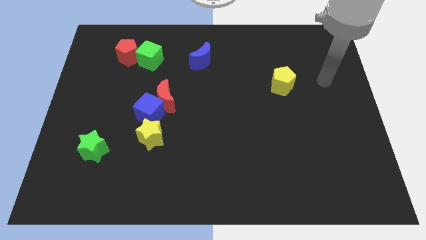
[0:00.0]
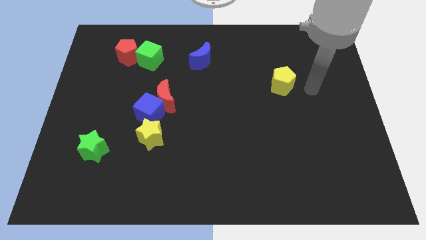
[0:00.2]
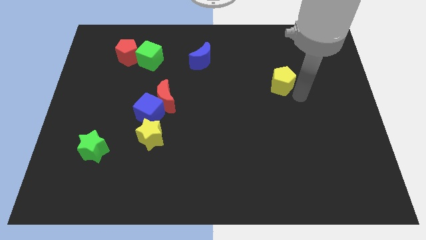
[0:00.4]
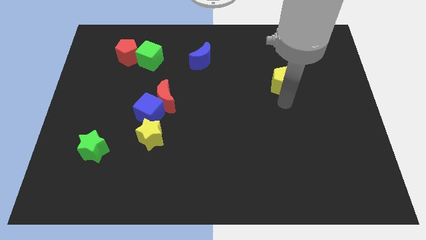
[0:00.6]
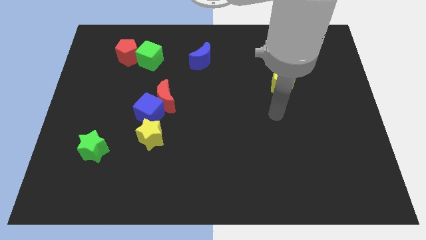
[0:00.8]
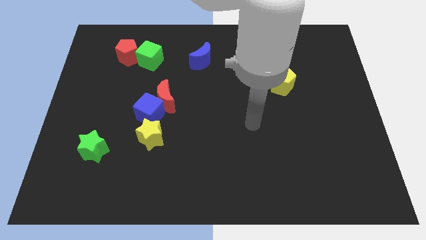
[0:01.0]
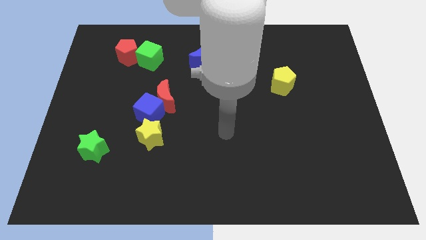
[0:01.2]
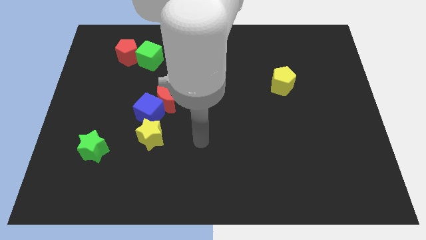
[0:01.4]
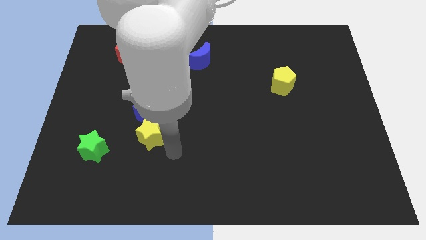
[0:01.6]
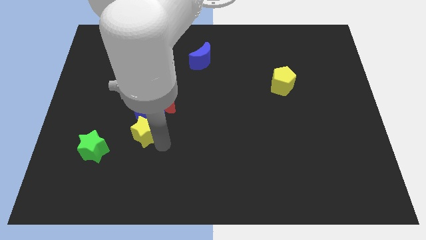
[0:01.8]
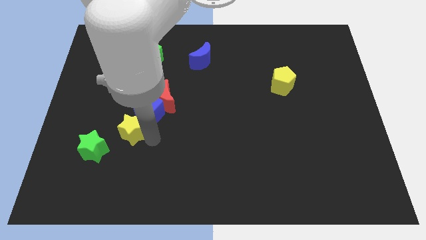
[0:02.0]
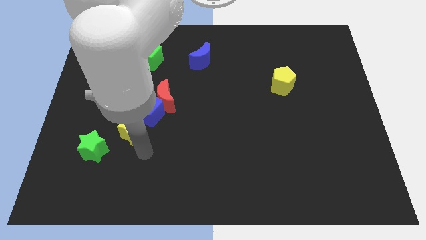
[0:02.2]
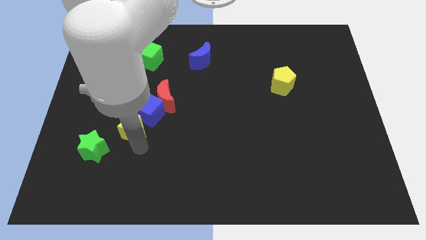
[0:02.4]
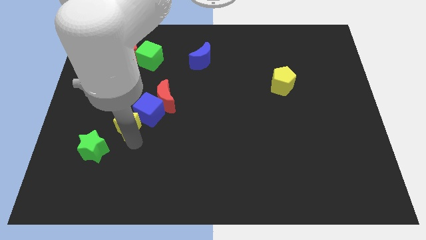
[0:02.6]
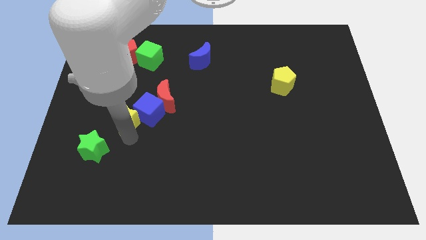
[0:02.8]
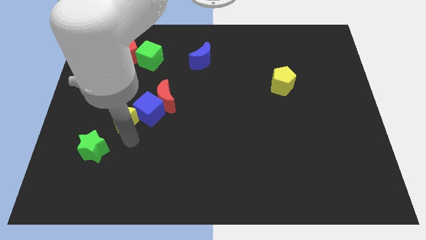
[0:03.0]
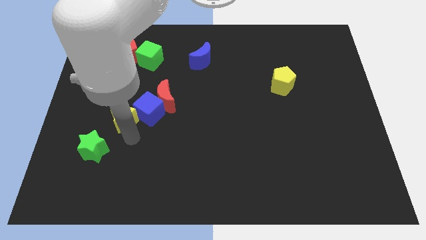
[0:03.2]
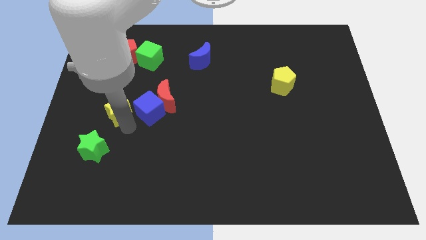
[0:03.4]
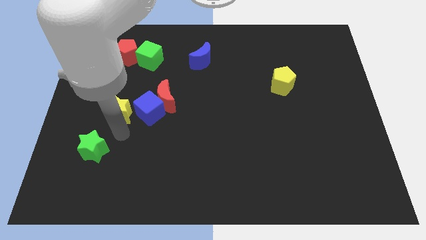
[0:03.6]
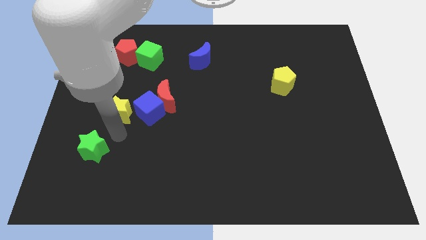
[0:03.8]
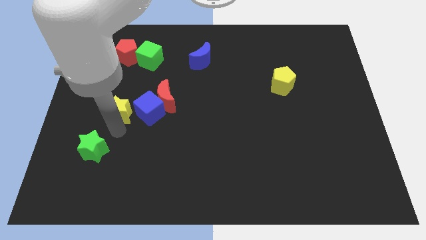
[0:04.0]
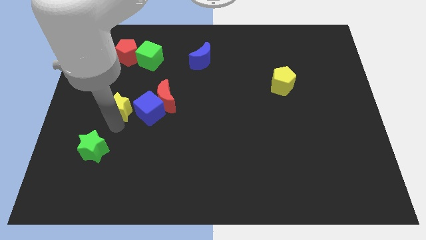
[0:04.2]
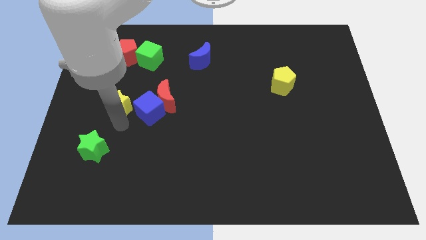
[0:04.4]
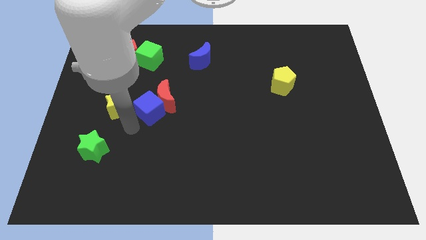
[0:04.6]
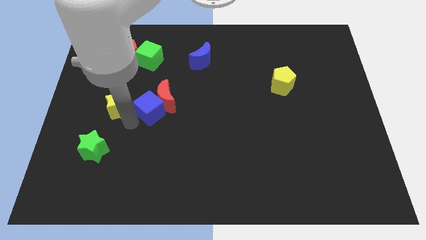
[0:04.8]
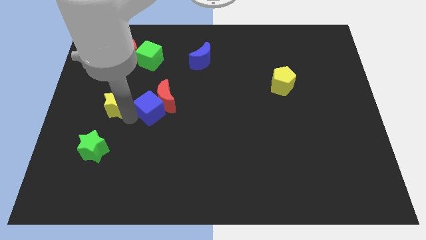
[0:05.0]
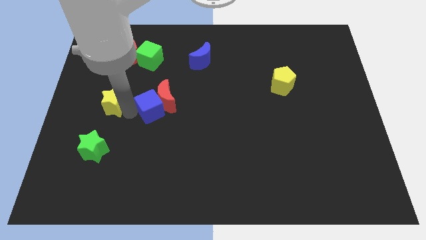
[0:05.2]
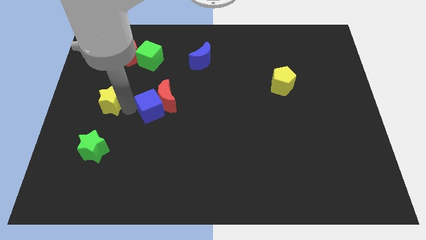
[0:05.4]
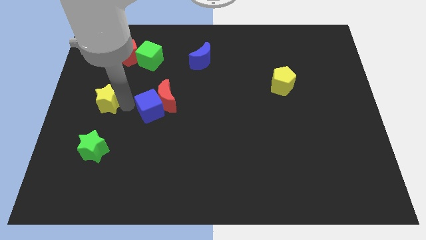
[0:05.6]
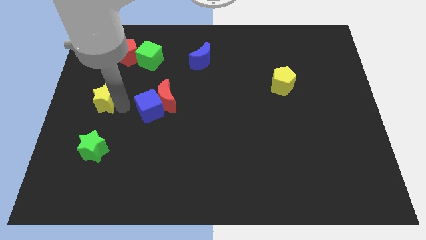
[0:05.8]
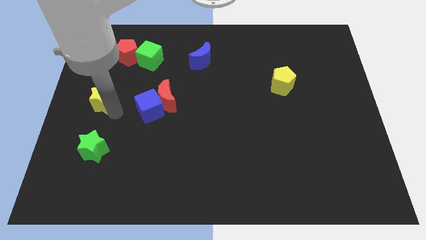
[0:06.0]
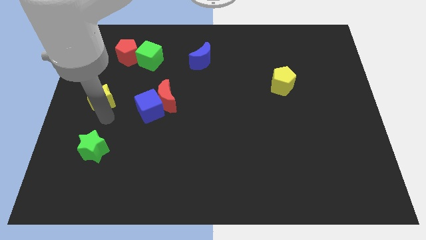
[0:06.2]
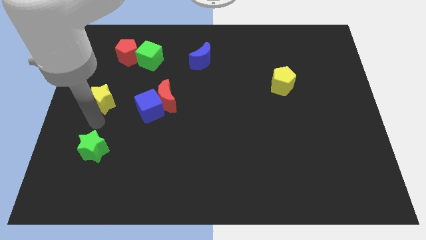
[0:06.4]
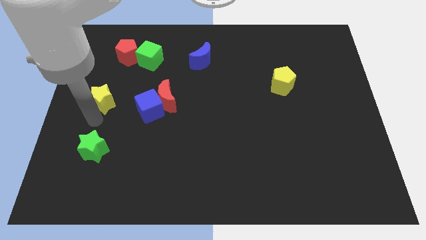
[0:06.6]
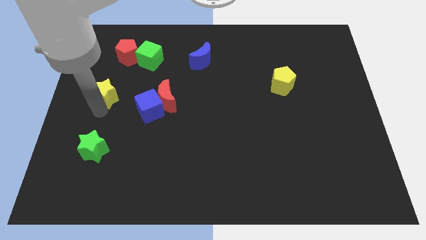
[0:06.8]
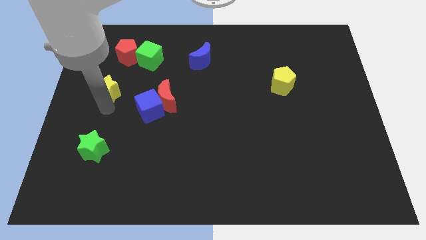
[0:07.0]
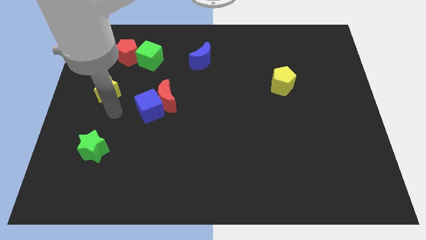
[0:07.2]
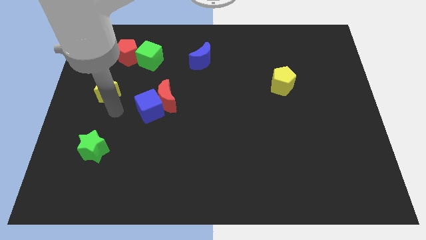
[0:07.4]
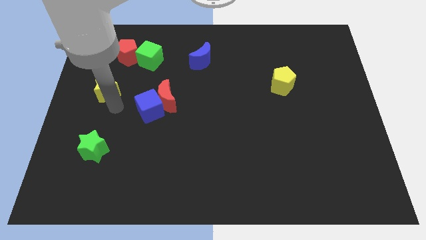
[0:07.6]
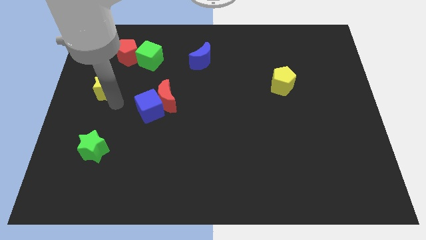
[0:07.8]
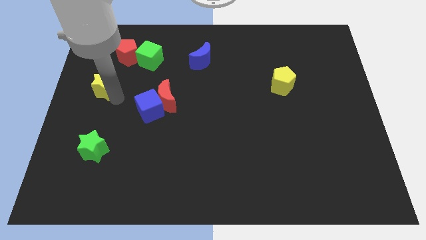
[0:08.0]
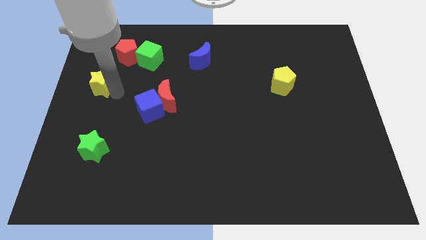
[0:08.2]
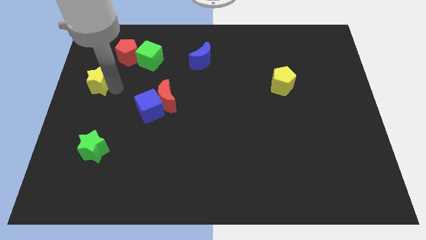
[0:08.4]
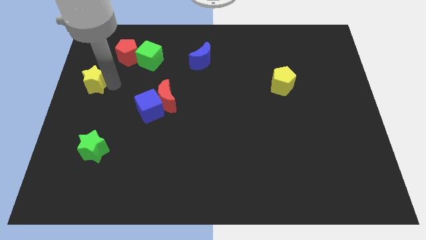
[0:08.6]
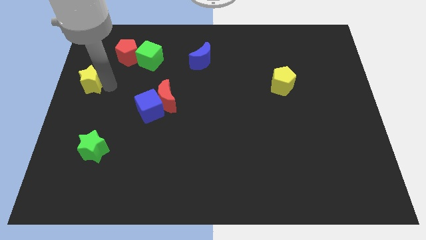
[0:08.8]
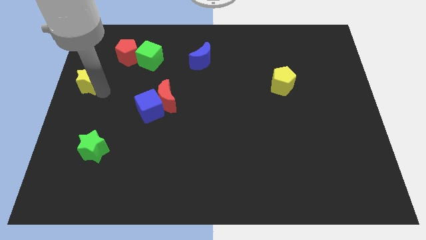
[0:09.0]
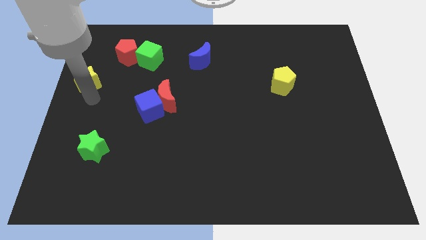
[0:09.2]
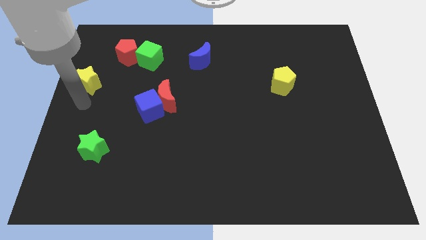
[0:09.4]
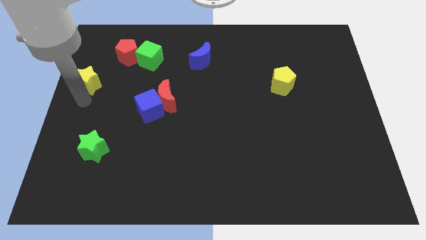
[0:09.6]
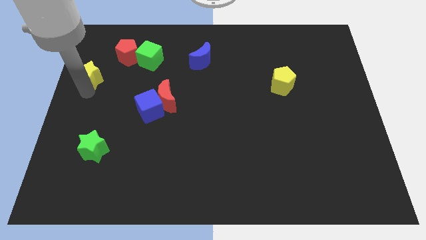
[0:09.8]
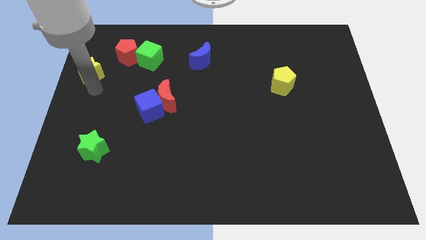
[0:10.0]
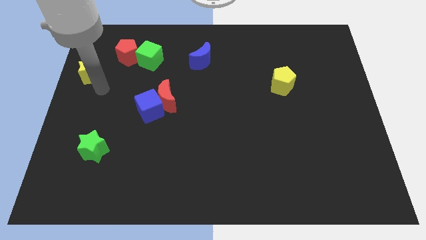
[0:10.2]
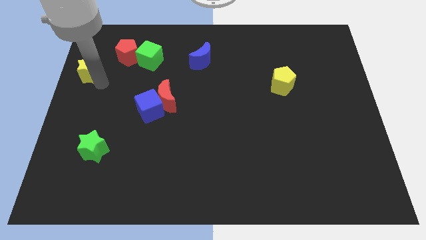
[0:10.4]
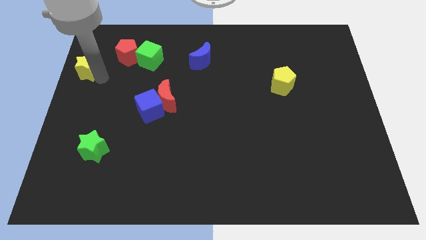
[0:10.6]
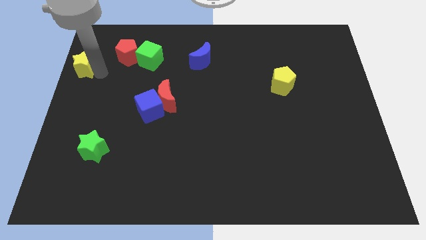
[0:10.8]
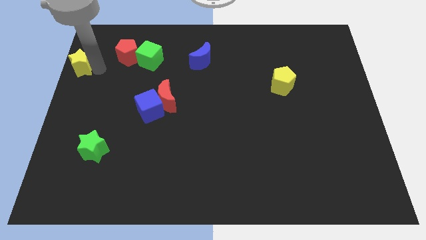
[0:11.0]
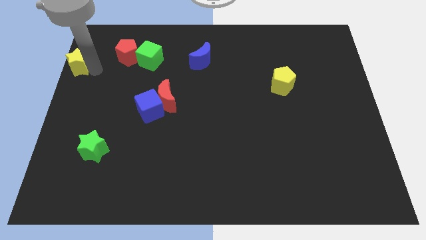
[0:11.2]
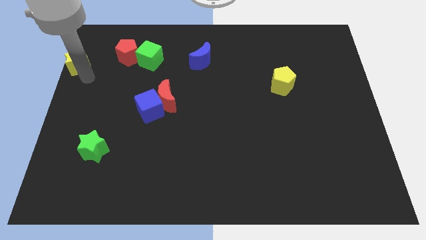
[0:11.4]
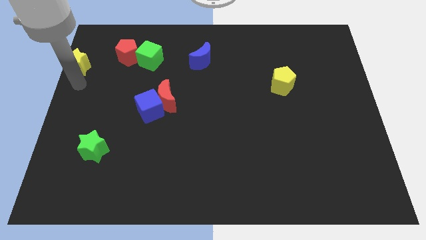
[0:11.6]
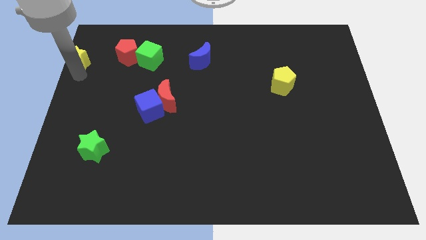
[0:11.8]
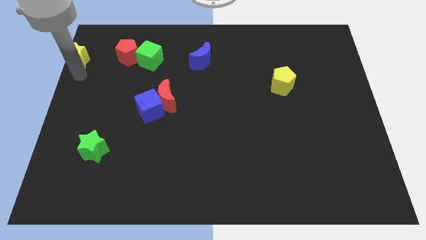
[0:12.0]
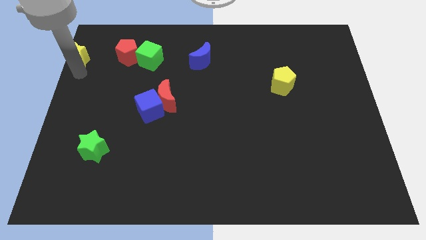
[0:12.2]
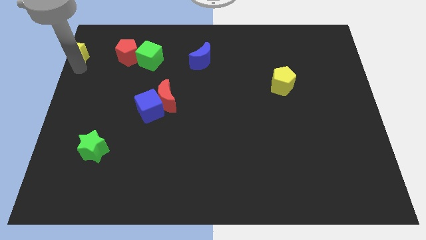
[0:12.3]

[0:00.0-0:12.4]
push the yellow star to the top left of the board

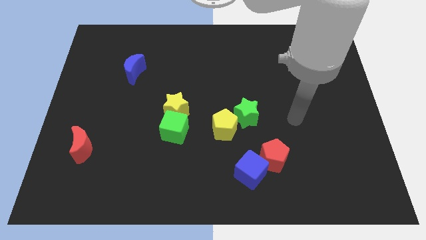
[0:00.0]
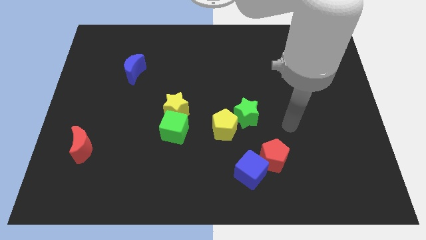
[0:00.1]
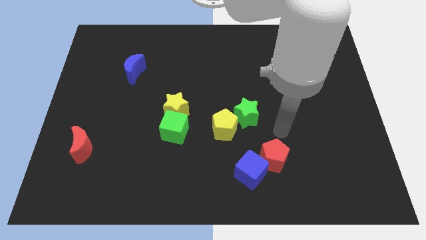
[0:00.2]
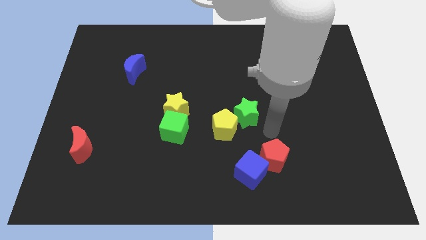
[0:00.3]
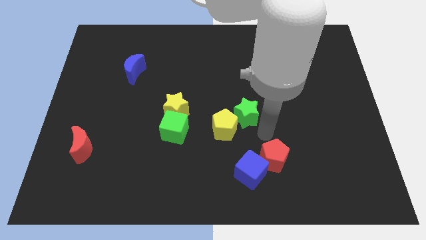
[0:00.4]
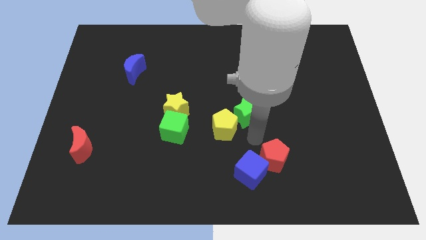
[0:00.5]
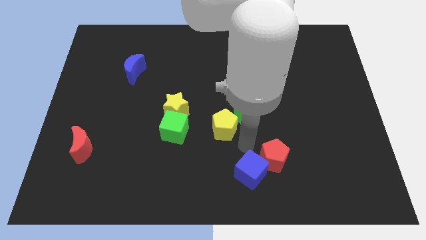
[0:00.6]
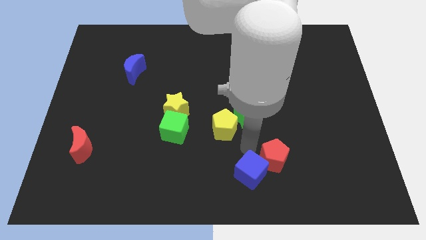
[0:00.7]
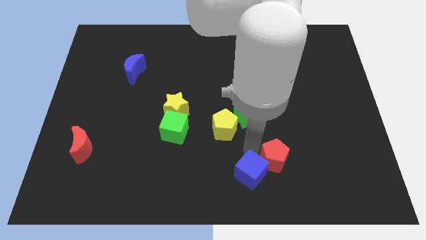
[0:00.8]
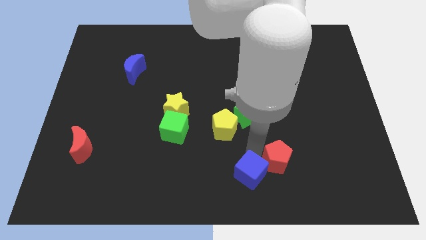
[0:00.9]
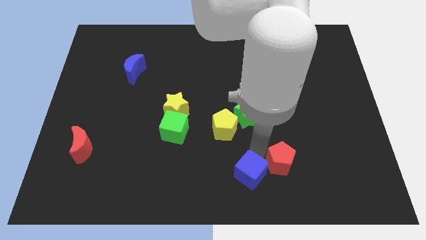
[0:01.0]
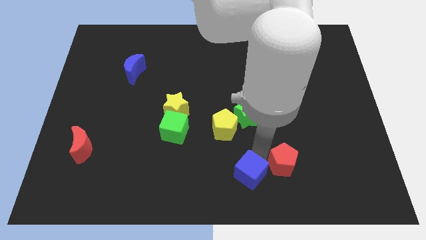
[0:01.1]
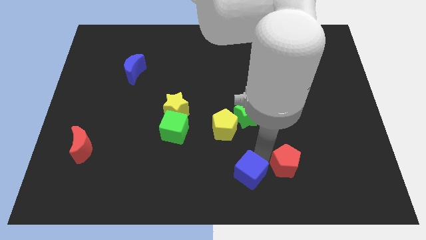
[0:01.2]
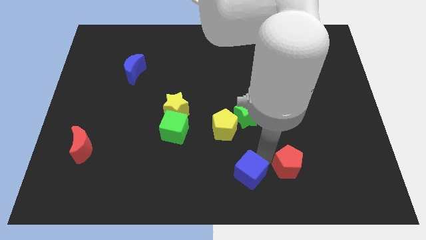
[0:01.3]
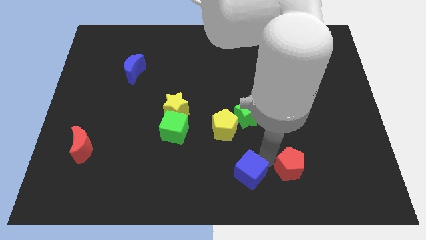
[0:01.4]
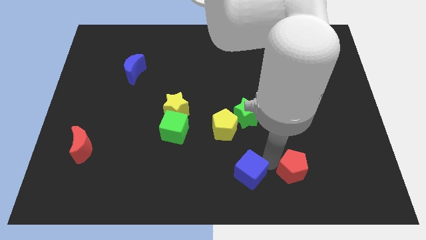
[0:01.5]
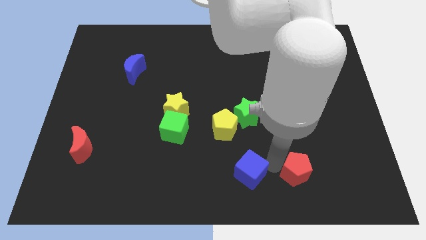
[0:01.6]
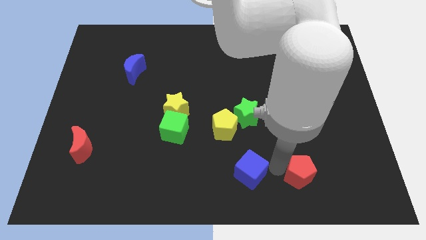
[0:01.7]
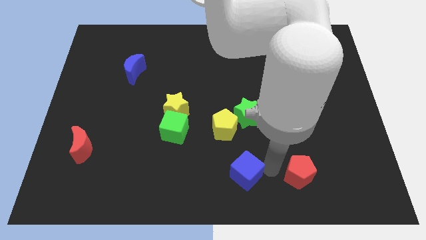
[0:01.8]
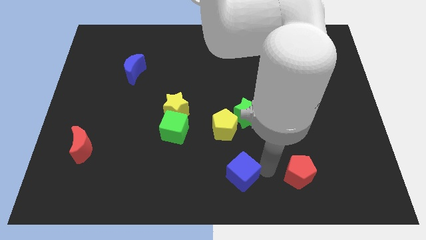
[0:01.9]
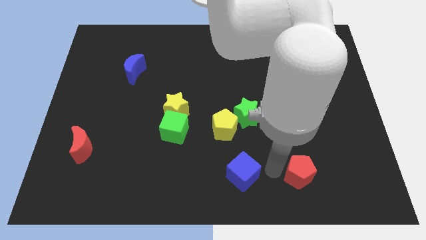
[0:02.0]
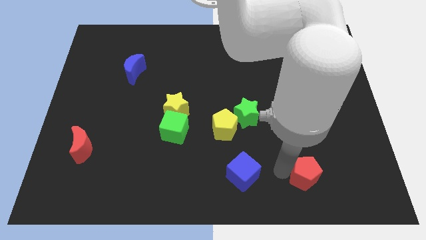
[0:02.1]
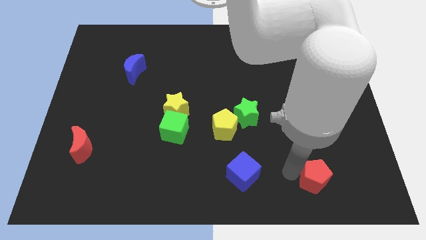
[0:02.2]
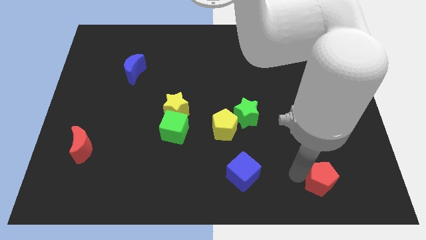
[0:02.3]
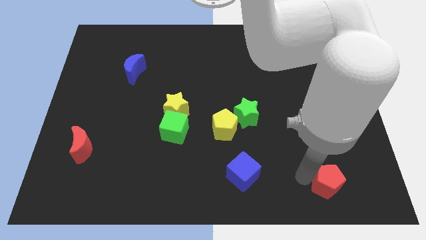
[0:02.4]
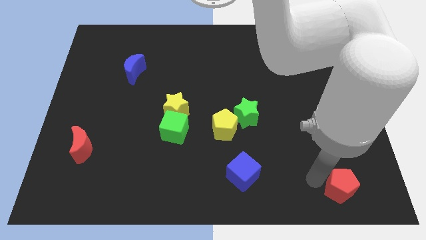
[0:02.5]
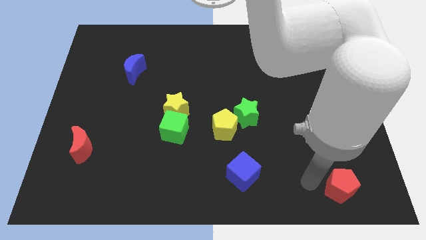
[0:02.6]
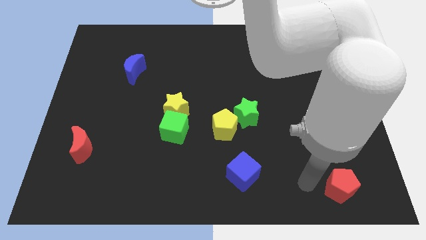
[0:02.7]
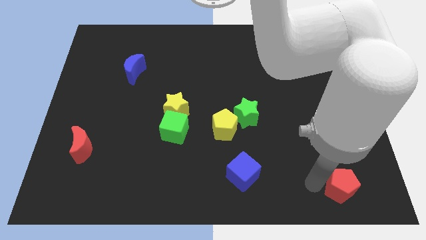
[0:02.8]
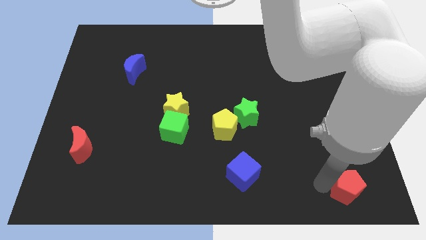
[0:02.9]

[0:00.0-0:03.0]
put the red pentagon to the bottom right
